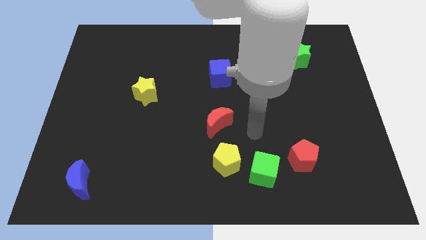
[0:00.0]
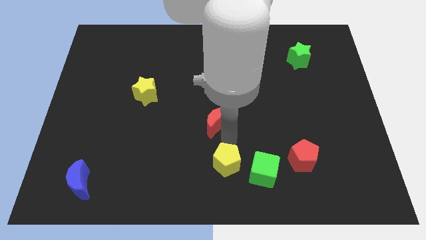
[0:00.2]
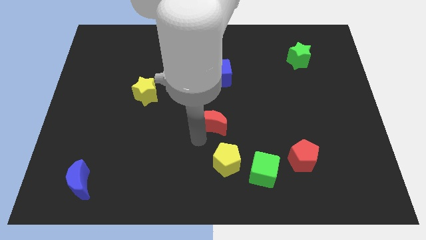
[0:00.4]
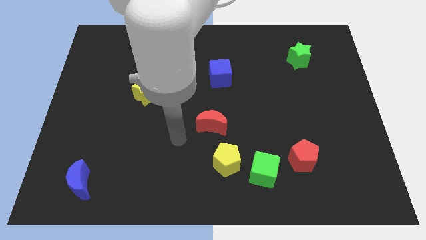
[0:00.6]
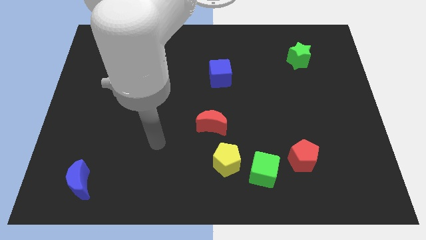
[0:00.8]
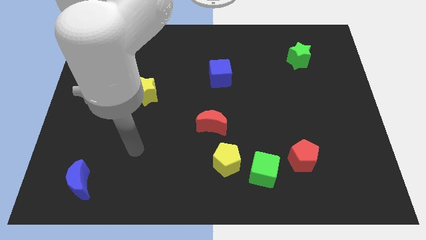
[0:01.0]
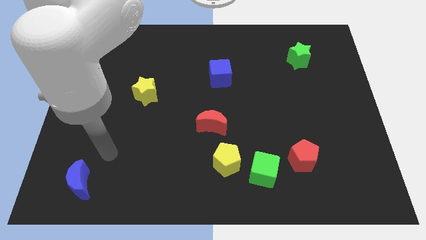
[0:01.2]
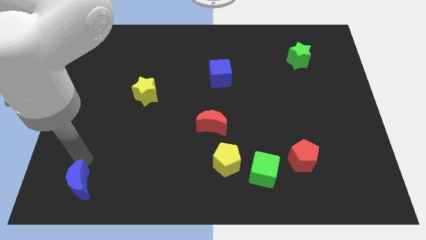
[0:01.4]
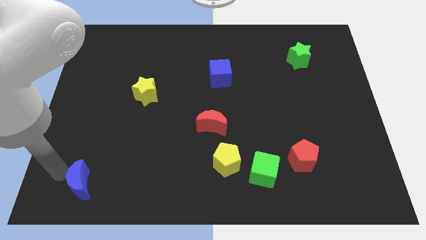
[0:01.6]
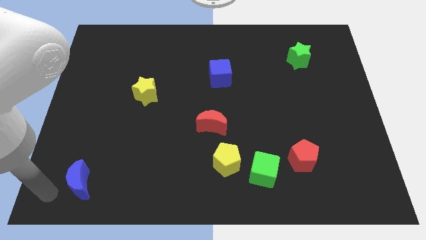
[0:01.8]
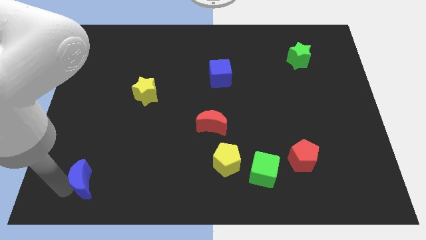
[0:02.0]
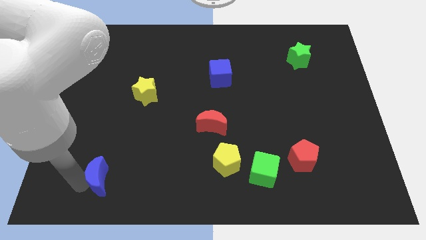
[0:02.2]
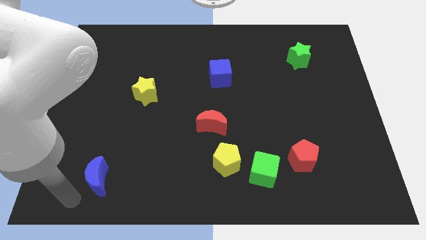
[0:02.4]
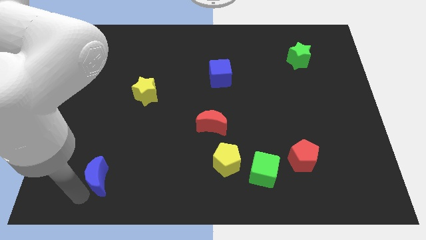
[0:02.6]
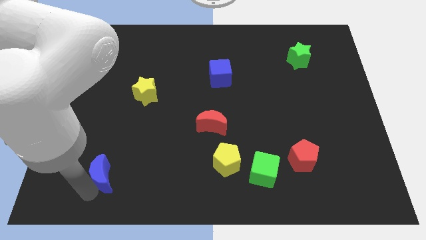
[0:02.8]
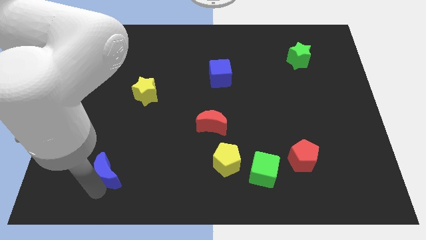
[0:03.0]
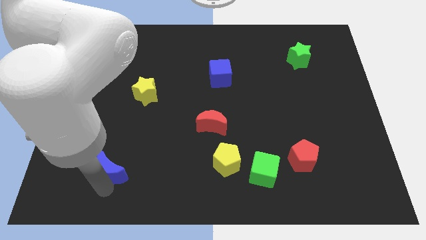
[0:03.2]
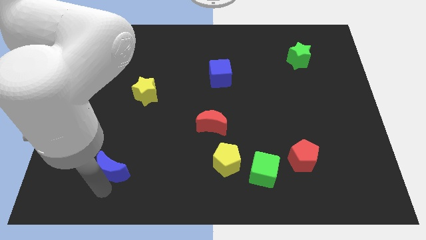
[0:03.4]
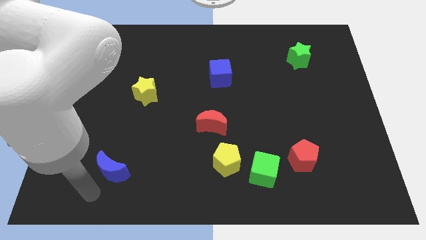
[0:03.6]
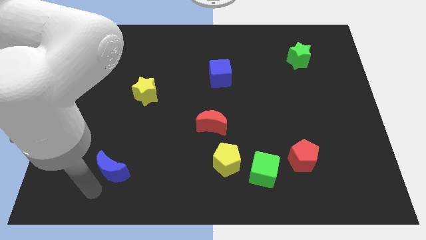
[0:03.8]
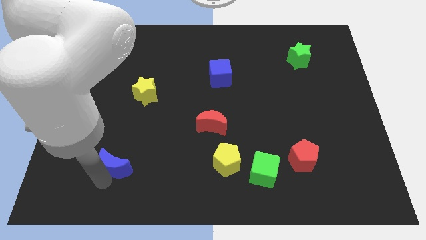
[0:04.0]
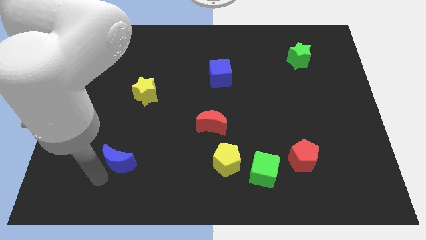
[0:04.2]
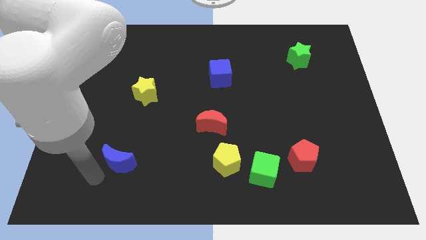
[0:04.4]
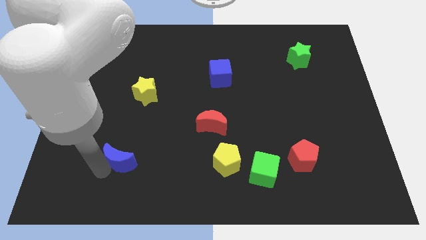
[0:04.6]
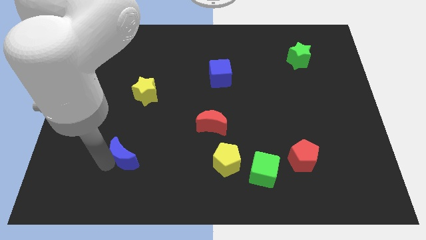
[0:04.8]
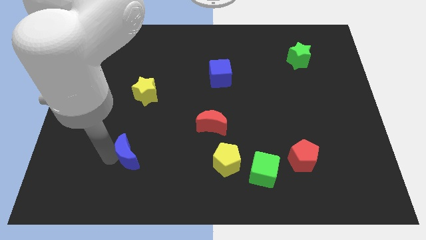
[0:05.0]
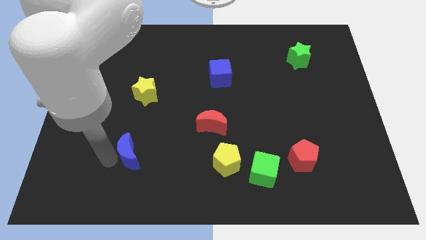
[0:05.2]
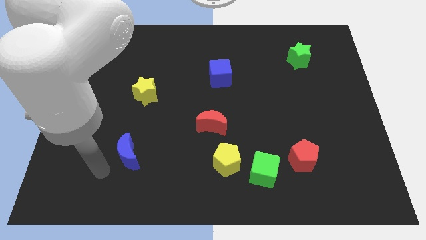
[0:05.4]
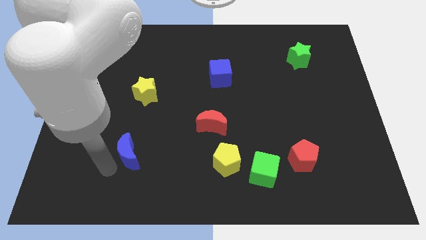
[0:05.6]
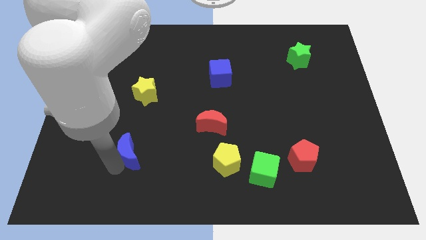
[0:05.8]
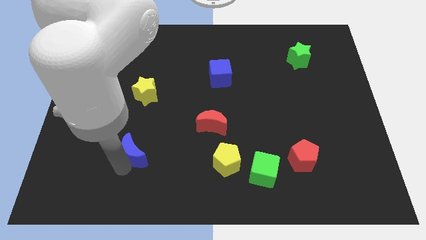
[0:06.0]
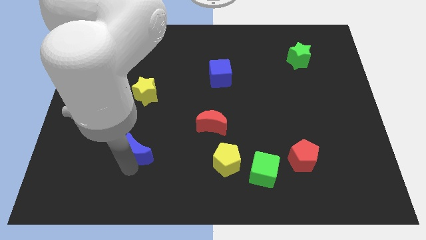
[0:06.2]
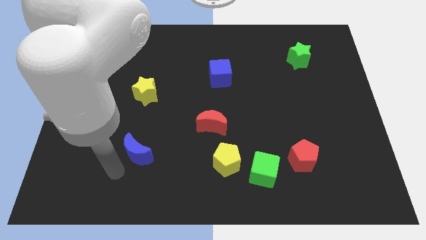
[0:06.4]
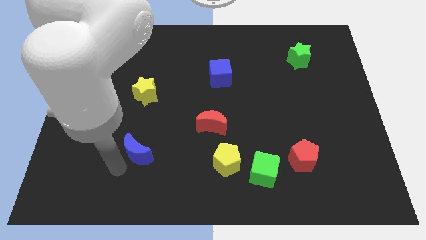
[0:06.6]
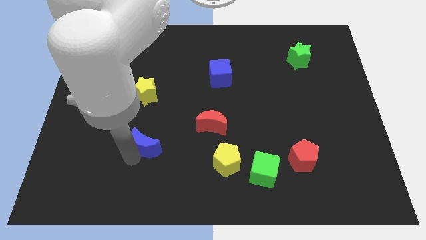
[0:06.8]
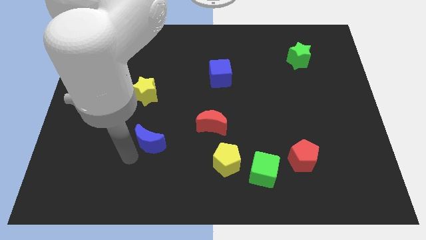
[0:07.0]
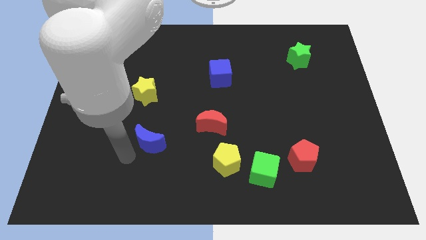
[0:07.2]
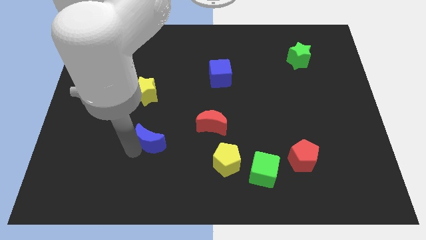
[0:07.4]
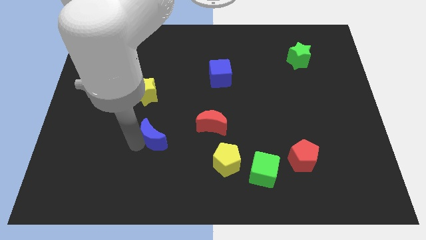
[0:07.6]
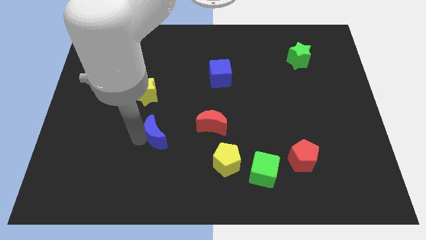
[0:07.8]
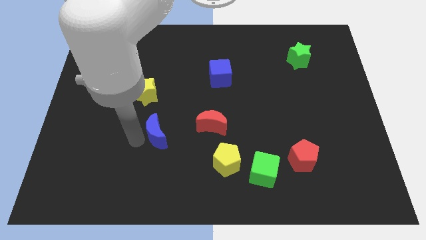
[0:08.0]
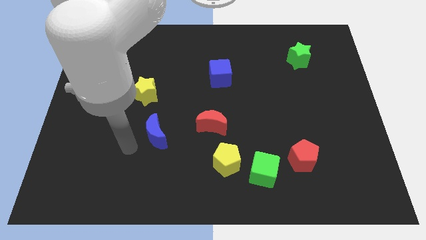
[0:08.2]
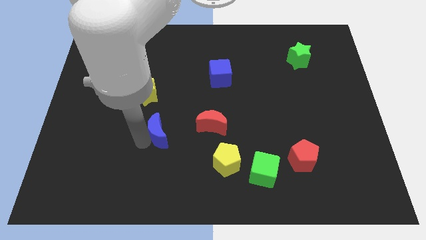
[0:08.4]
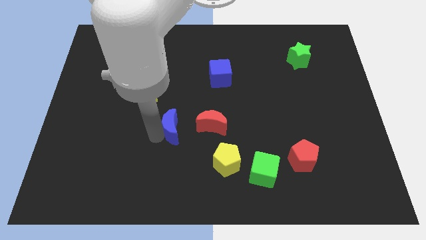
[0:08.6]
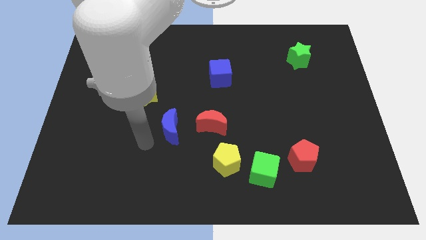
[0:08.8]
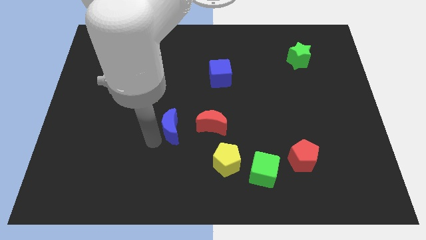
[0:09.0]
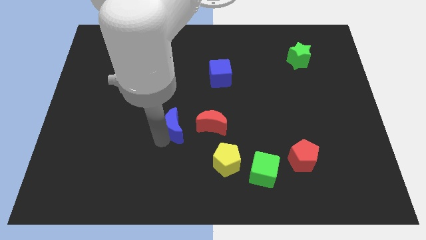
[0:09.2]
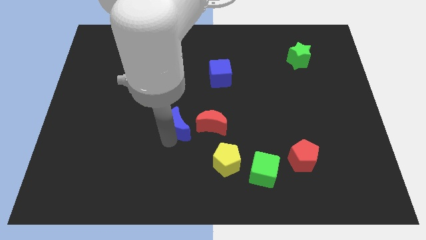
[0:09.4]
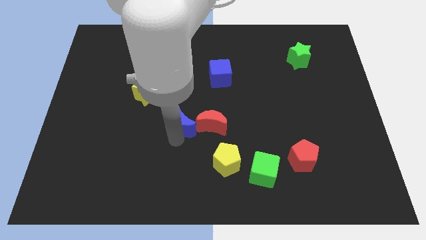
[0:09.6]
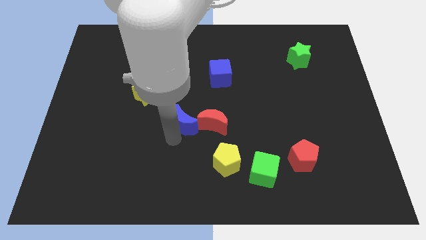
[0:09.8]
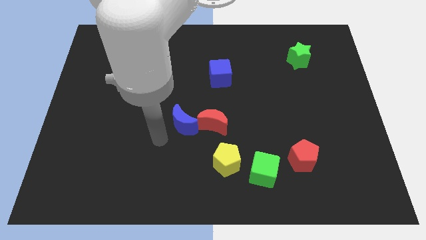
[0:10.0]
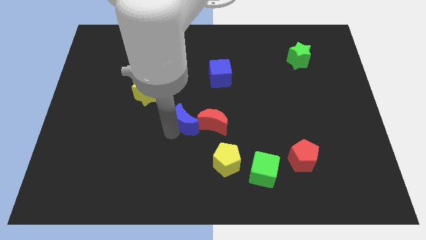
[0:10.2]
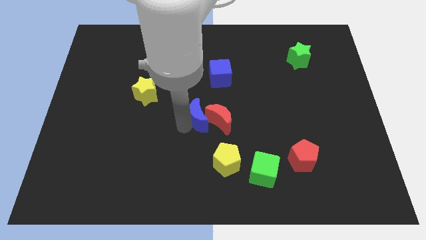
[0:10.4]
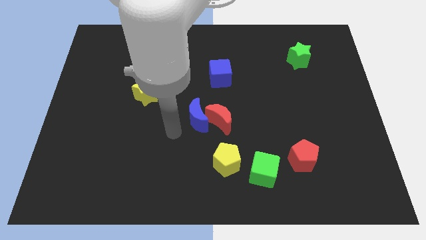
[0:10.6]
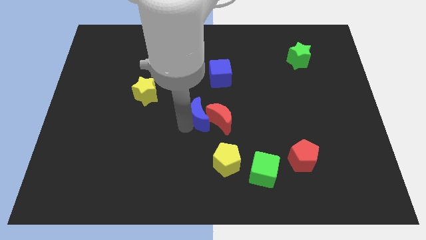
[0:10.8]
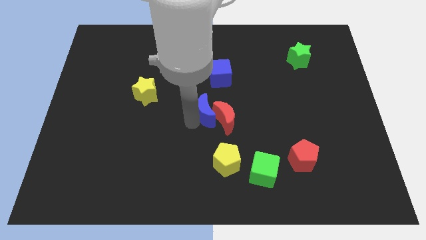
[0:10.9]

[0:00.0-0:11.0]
move the blue moon above the yellow pentagon

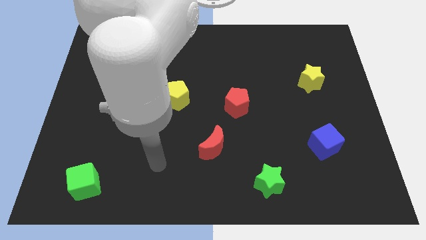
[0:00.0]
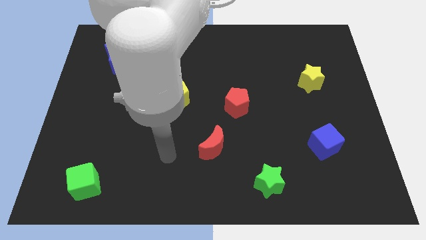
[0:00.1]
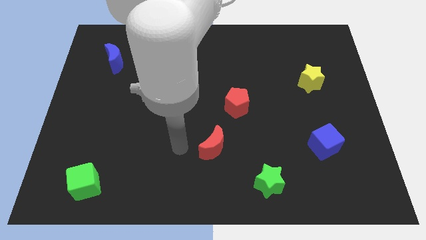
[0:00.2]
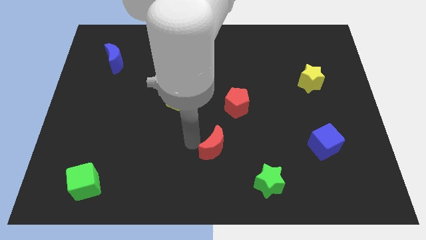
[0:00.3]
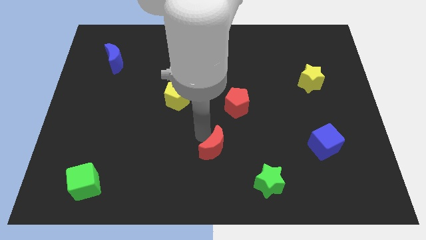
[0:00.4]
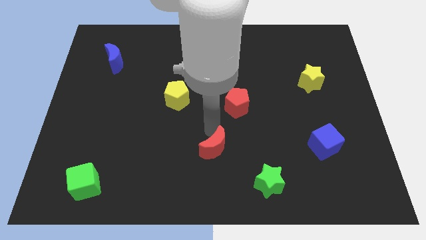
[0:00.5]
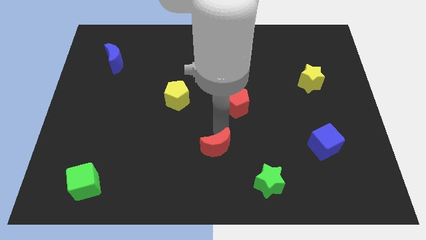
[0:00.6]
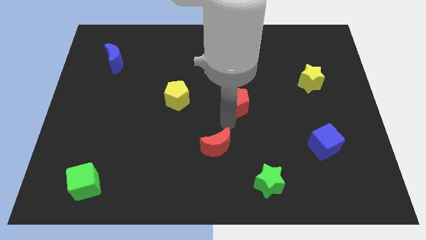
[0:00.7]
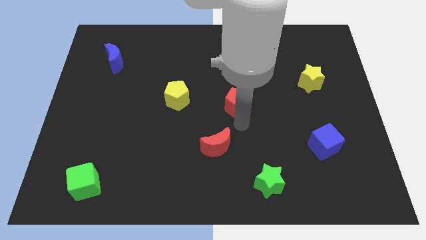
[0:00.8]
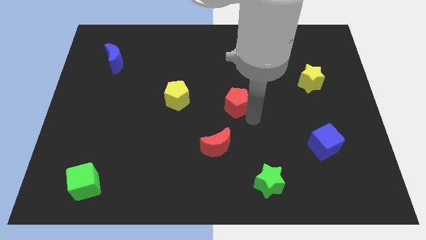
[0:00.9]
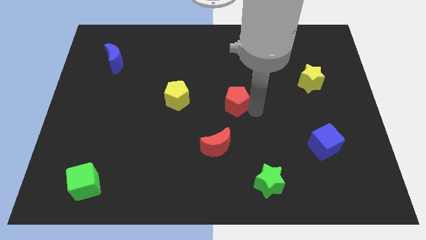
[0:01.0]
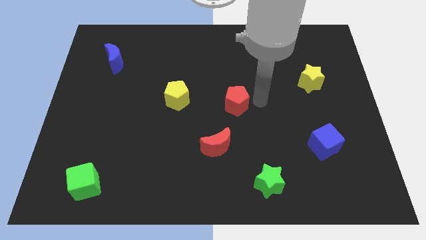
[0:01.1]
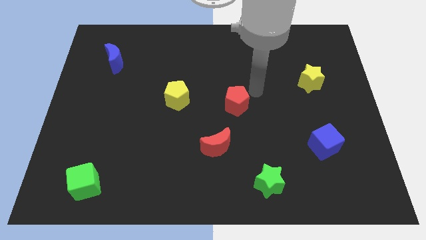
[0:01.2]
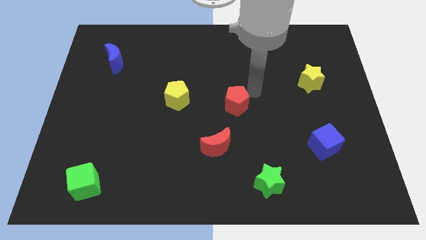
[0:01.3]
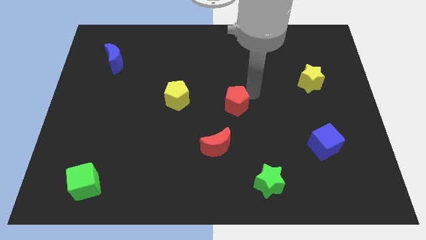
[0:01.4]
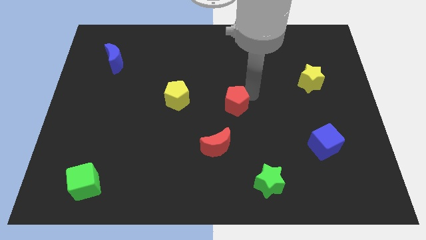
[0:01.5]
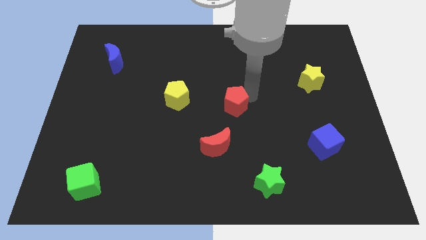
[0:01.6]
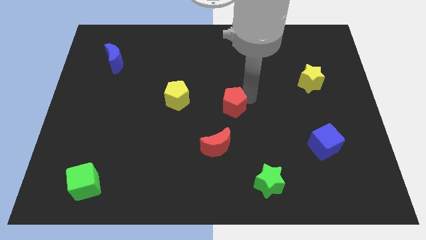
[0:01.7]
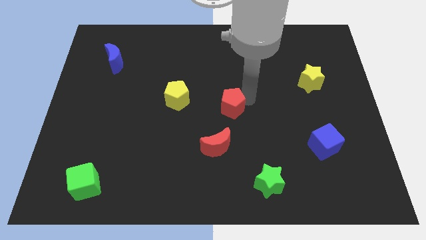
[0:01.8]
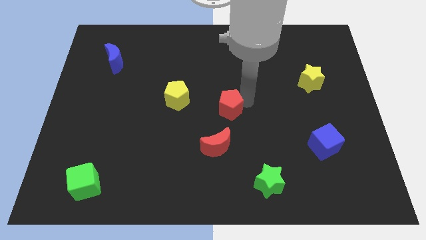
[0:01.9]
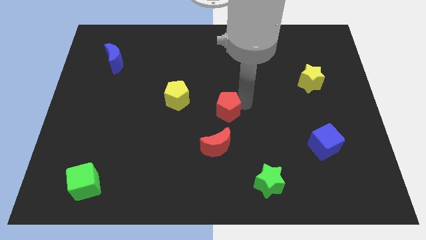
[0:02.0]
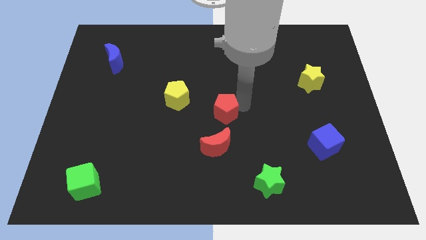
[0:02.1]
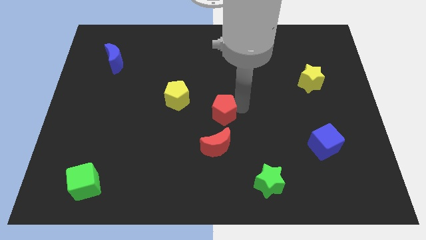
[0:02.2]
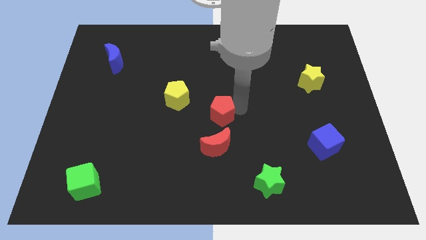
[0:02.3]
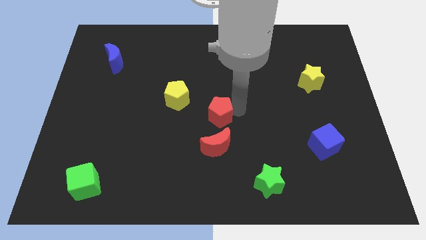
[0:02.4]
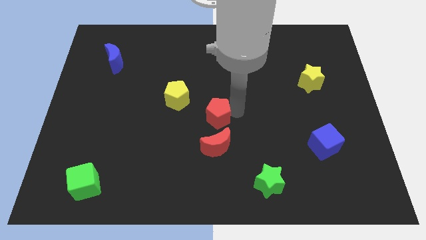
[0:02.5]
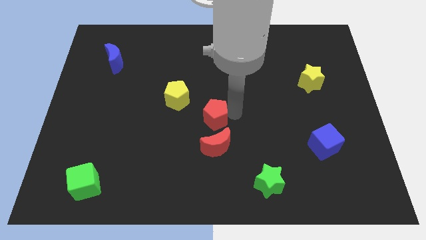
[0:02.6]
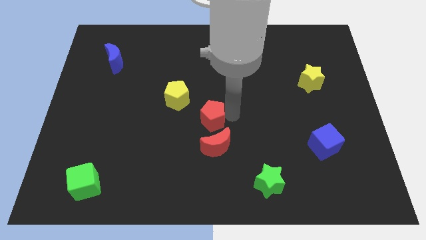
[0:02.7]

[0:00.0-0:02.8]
put the red pentagon diagonally up and to the left of the red moon
